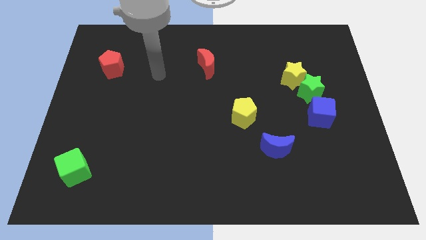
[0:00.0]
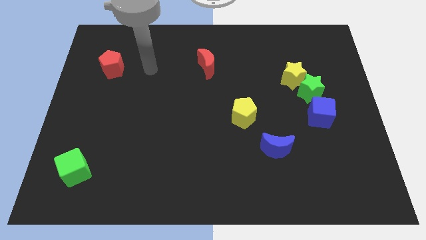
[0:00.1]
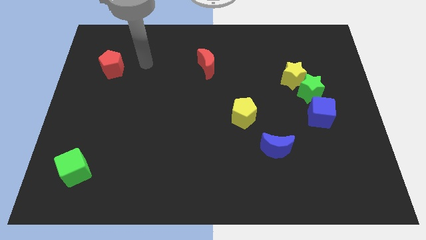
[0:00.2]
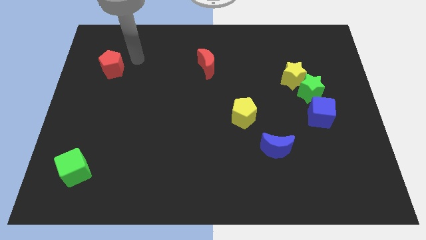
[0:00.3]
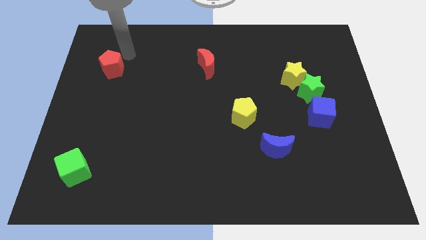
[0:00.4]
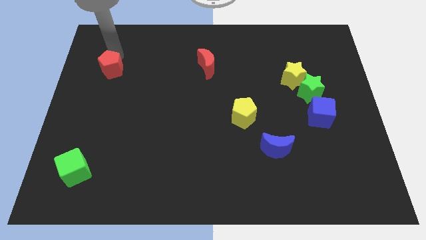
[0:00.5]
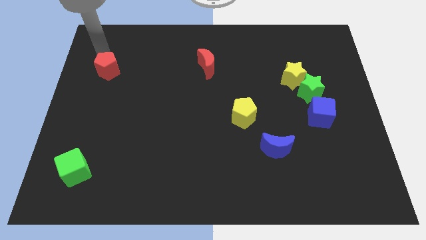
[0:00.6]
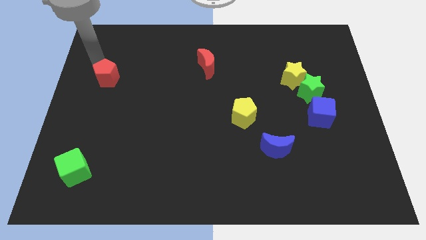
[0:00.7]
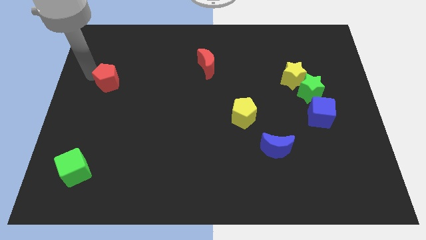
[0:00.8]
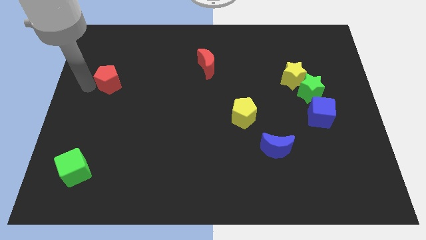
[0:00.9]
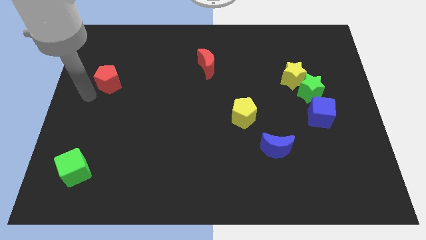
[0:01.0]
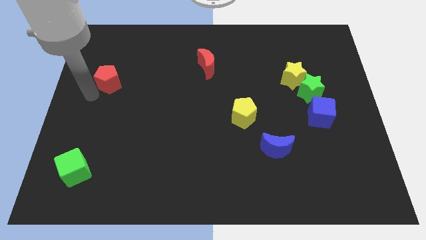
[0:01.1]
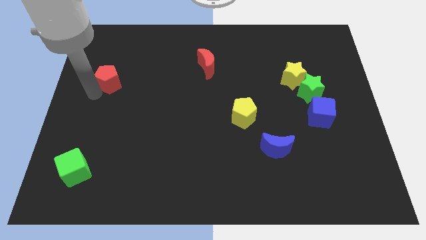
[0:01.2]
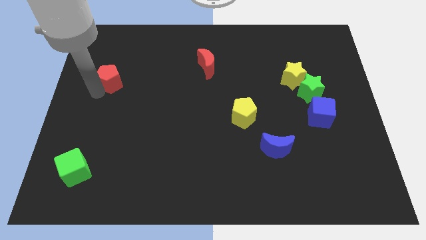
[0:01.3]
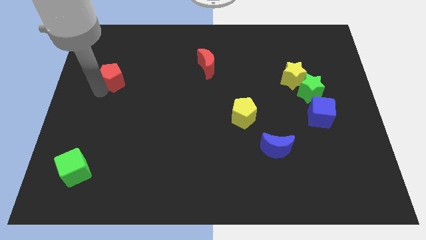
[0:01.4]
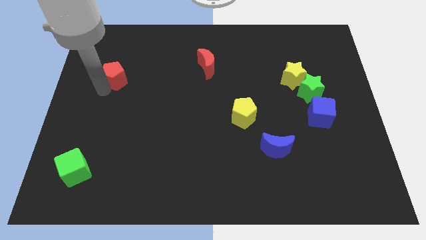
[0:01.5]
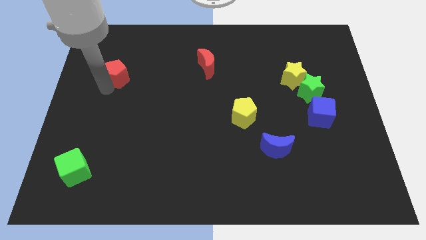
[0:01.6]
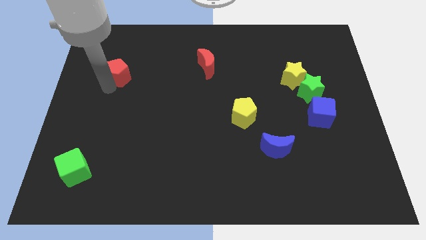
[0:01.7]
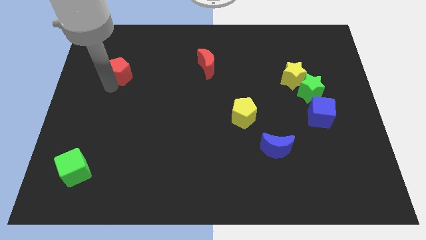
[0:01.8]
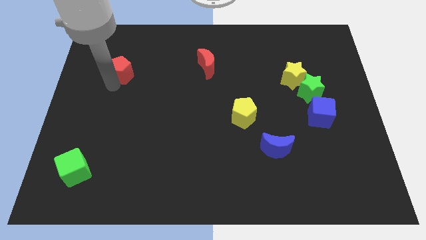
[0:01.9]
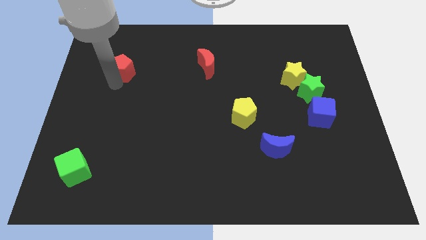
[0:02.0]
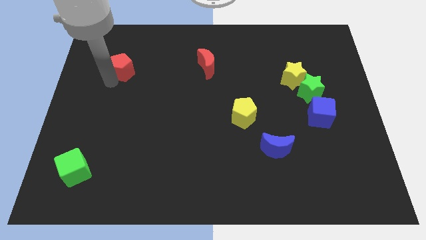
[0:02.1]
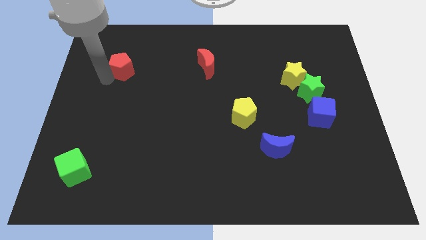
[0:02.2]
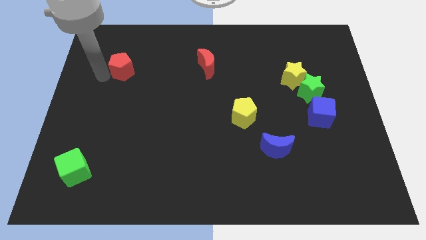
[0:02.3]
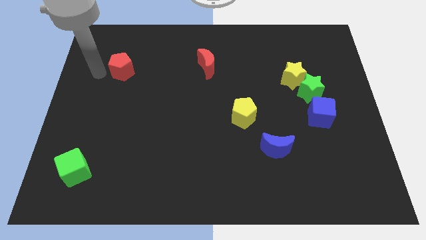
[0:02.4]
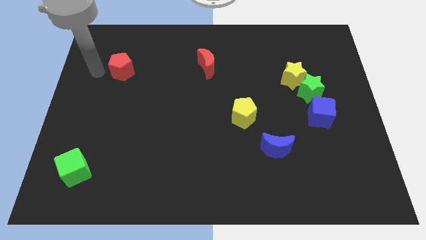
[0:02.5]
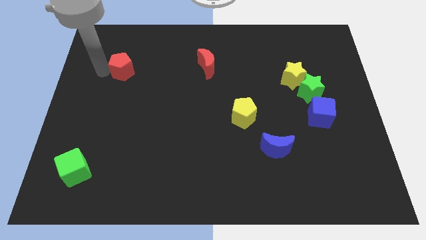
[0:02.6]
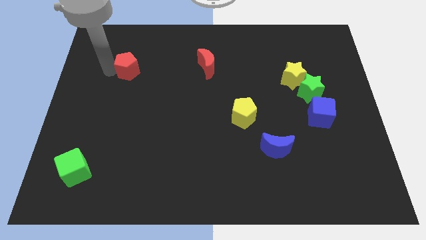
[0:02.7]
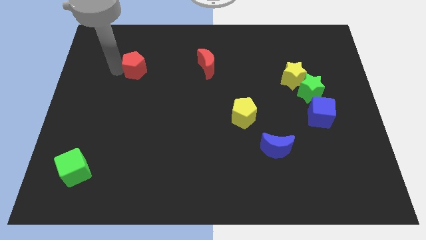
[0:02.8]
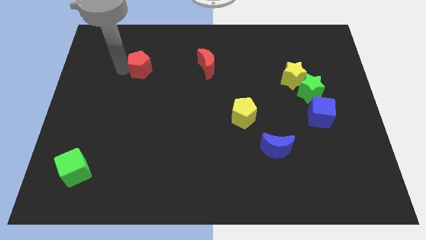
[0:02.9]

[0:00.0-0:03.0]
move the red pentagon right somewhat

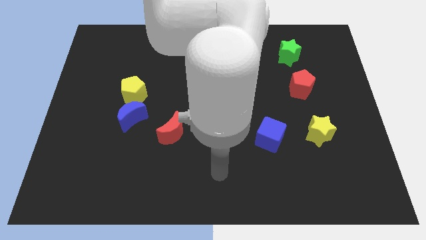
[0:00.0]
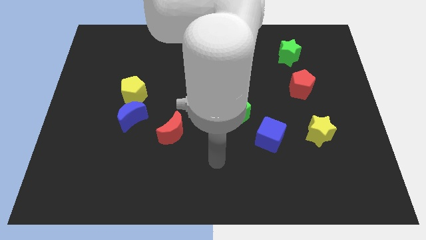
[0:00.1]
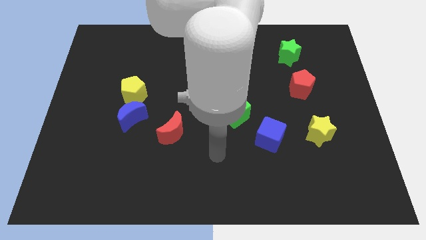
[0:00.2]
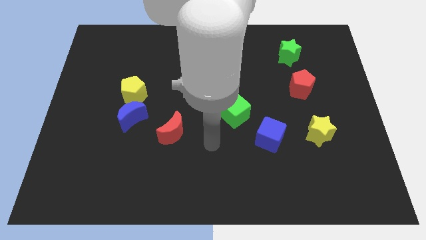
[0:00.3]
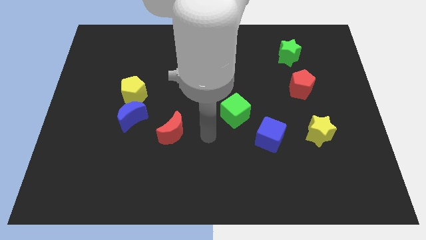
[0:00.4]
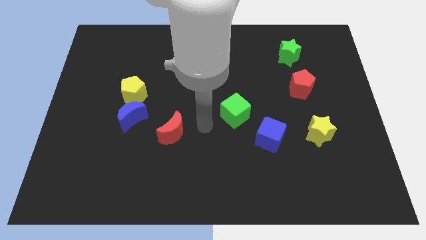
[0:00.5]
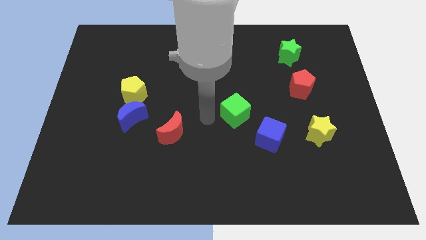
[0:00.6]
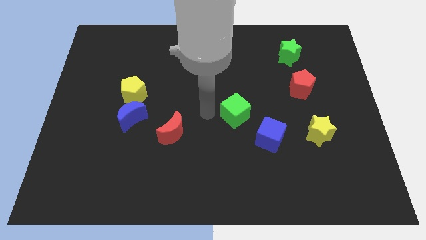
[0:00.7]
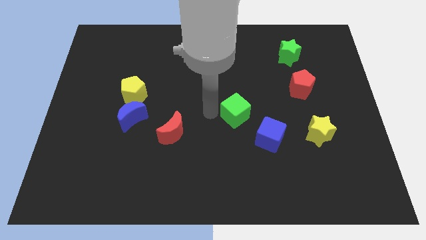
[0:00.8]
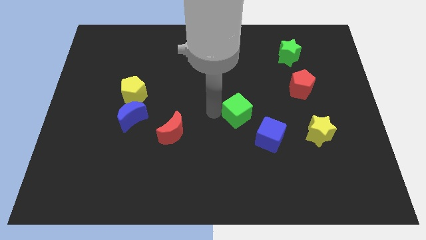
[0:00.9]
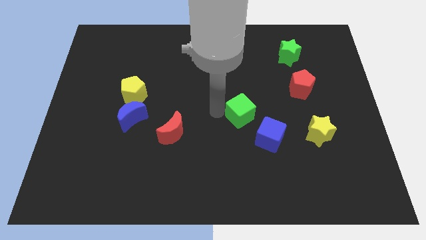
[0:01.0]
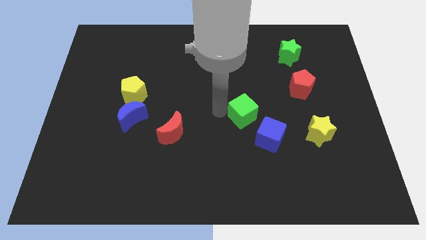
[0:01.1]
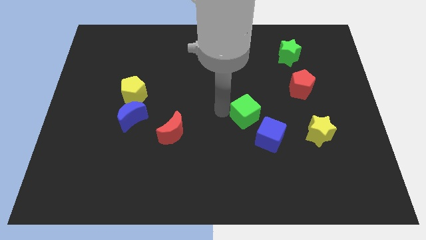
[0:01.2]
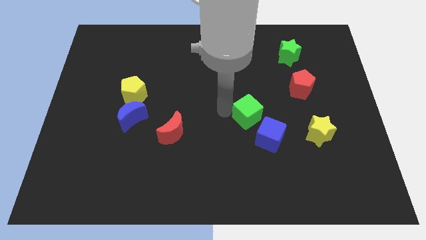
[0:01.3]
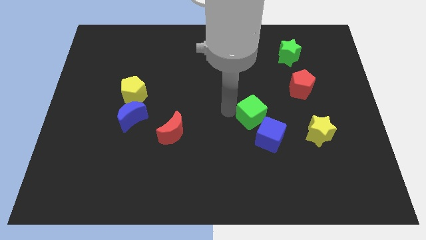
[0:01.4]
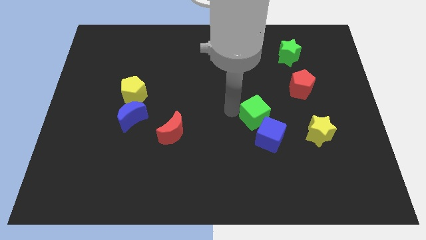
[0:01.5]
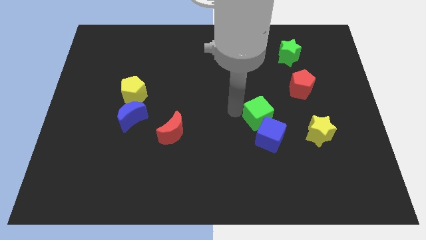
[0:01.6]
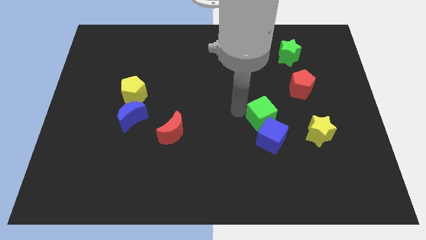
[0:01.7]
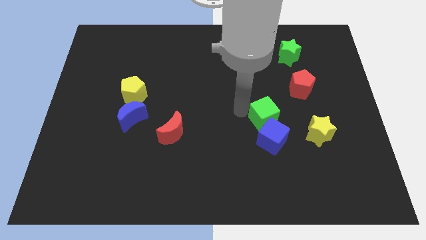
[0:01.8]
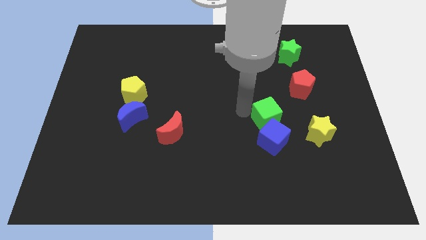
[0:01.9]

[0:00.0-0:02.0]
push the green cube right a bit

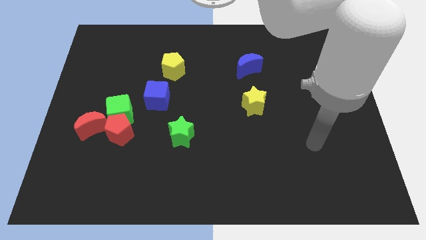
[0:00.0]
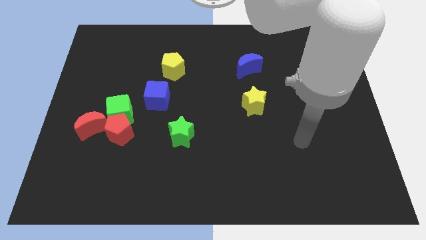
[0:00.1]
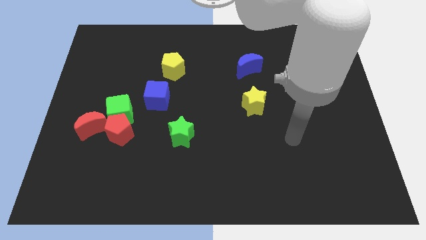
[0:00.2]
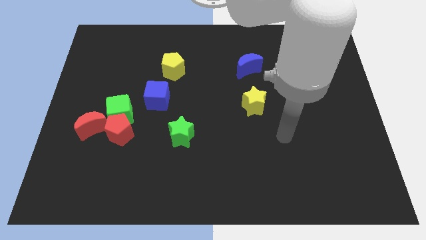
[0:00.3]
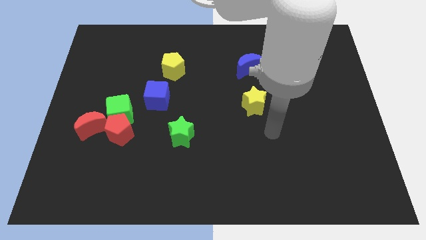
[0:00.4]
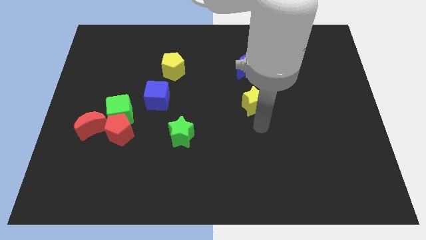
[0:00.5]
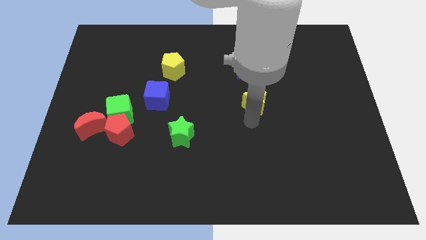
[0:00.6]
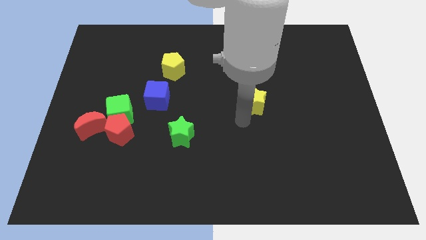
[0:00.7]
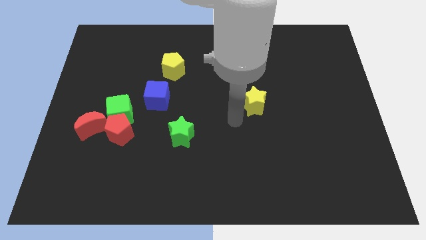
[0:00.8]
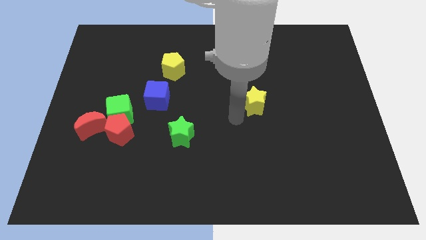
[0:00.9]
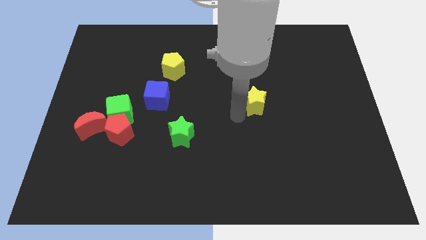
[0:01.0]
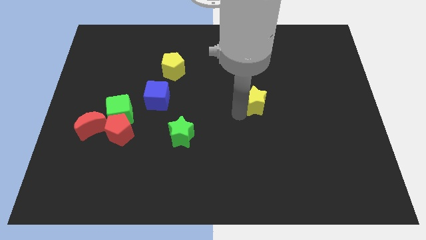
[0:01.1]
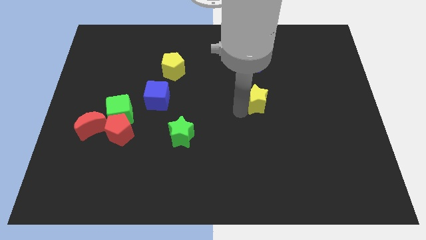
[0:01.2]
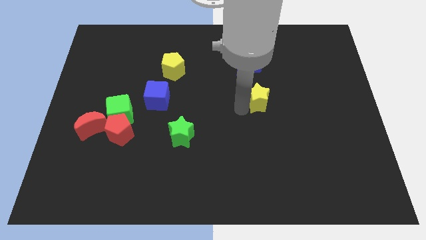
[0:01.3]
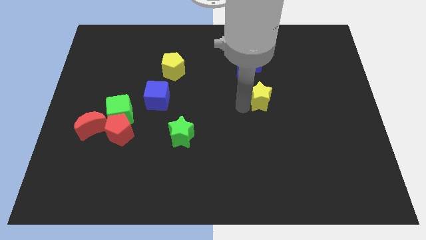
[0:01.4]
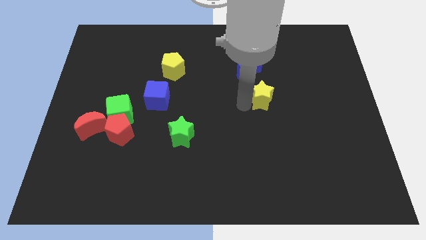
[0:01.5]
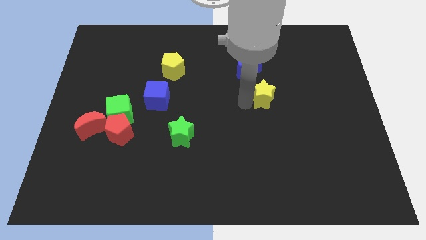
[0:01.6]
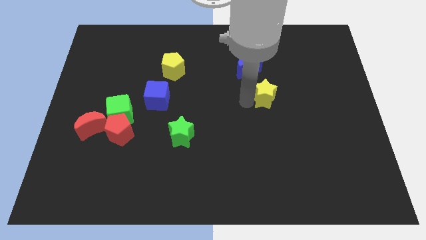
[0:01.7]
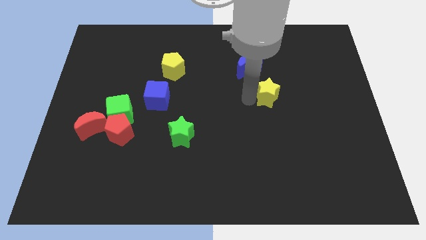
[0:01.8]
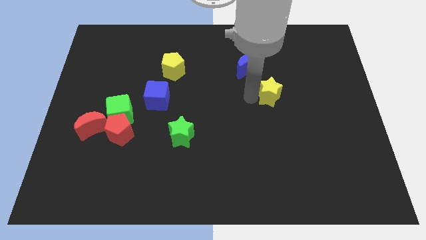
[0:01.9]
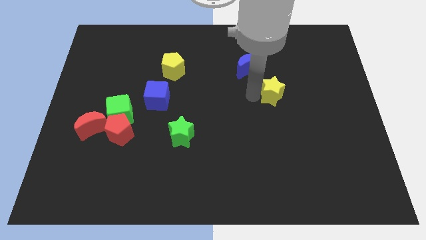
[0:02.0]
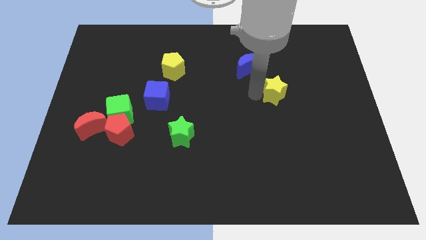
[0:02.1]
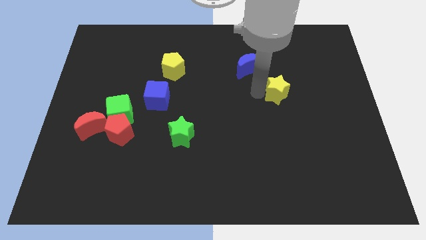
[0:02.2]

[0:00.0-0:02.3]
slightly move the yellow star upwards and right diagonally

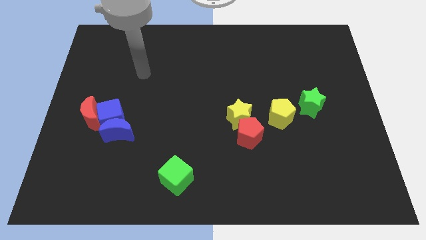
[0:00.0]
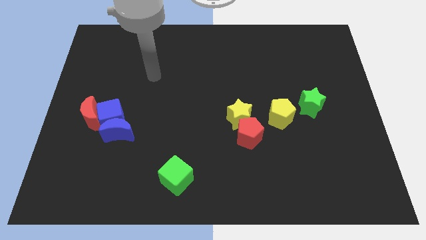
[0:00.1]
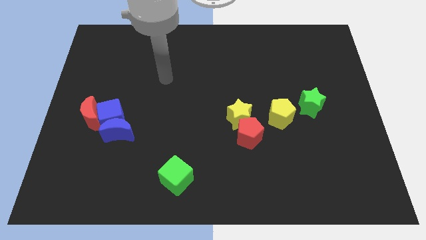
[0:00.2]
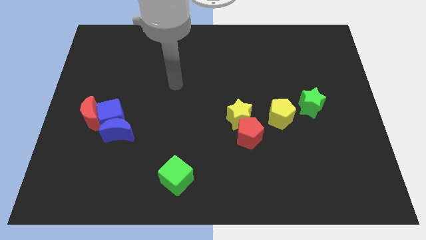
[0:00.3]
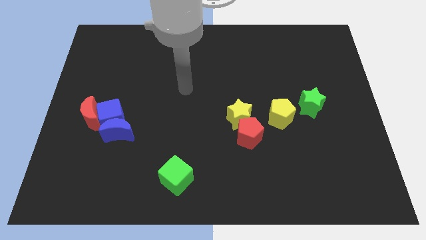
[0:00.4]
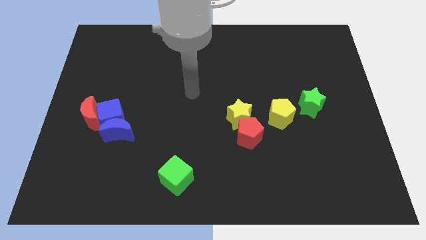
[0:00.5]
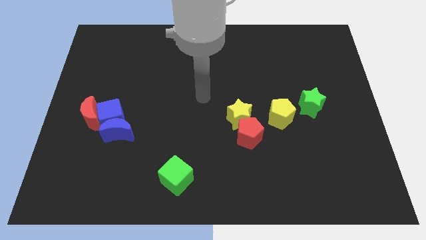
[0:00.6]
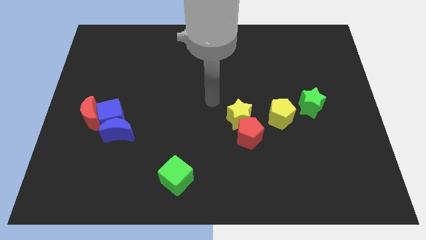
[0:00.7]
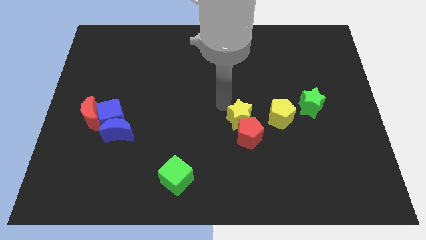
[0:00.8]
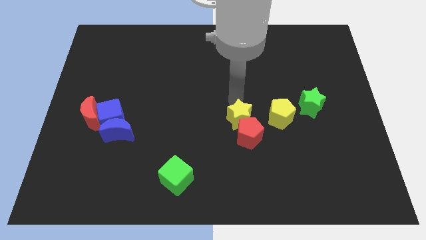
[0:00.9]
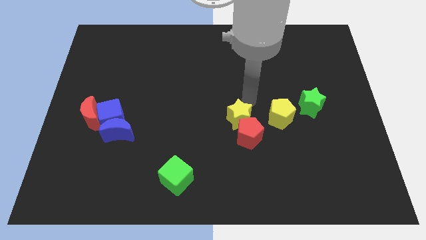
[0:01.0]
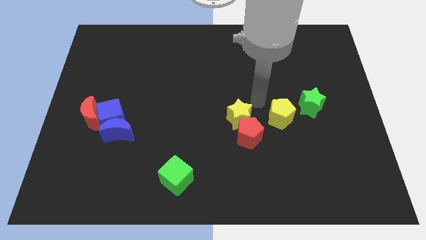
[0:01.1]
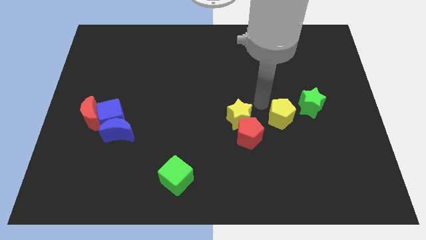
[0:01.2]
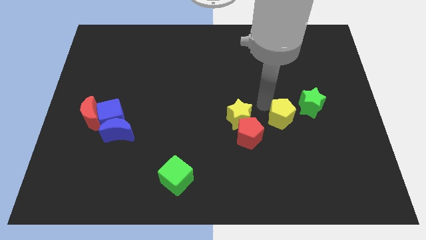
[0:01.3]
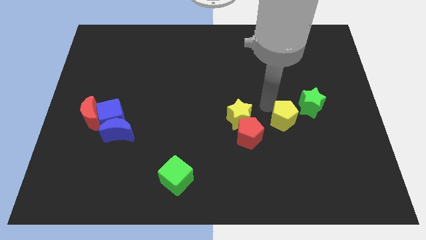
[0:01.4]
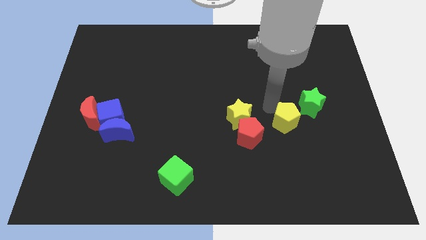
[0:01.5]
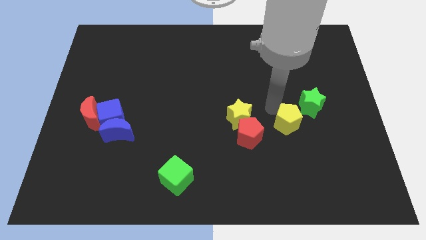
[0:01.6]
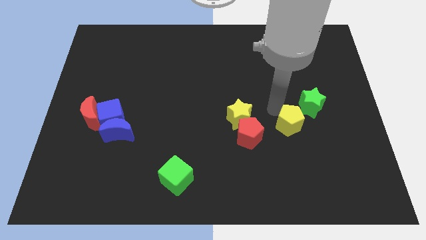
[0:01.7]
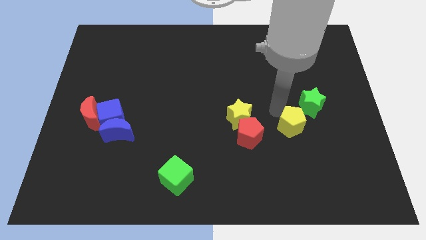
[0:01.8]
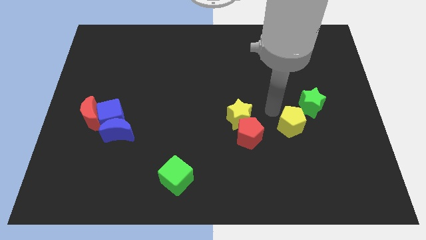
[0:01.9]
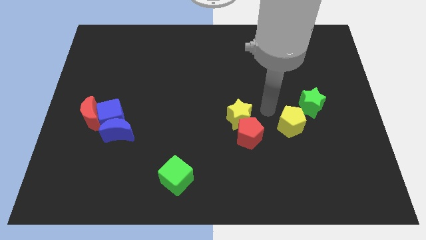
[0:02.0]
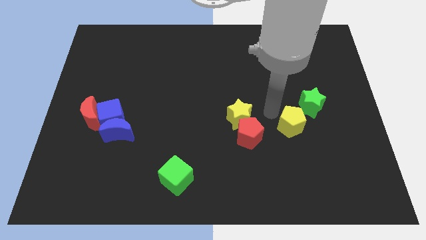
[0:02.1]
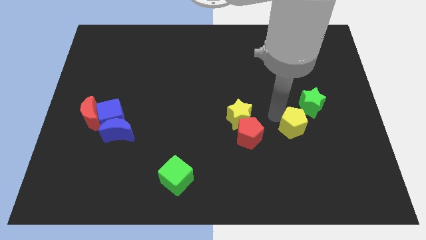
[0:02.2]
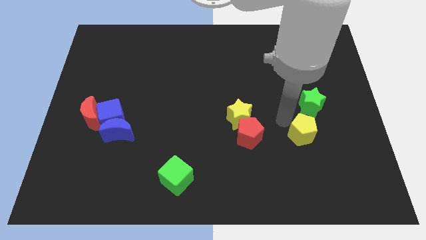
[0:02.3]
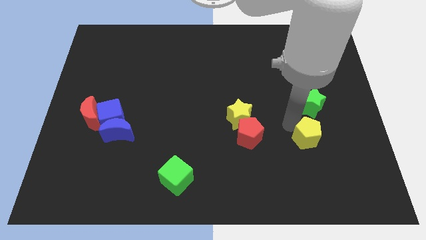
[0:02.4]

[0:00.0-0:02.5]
move the yellow pentagon diagonally down and right slightly
